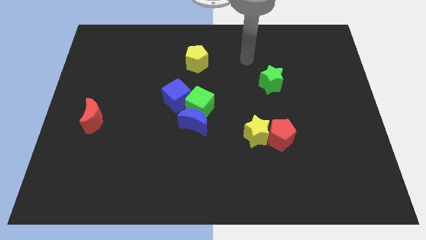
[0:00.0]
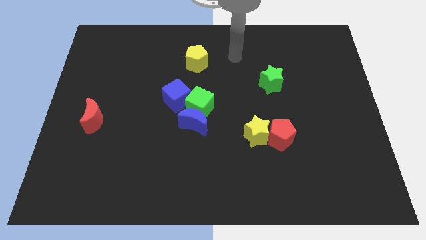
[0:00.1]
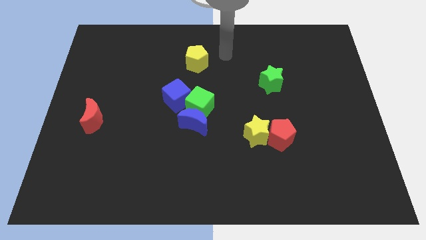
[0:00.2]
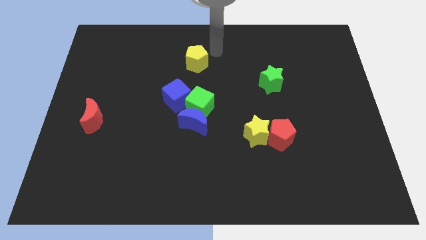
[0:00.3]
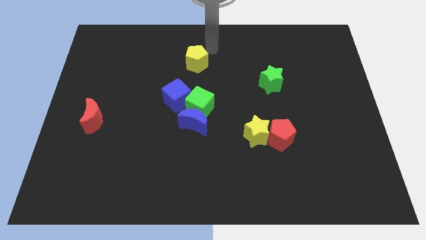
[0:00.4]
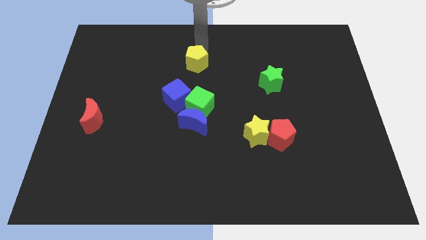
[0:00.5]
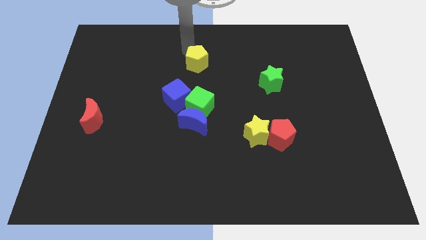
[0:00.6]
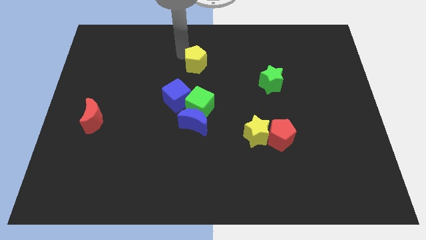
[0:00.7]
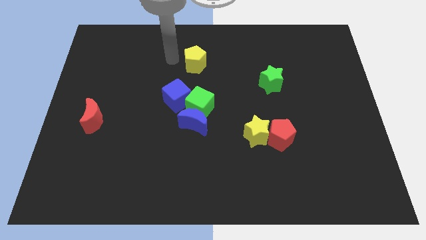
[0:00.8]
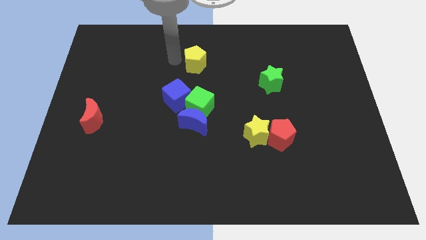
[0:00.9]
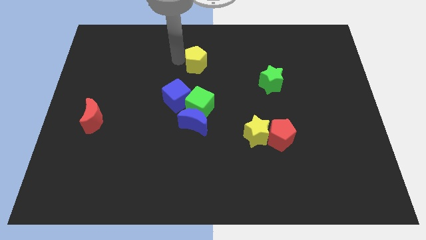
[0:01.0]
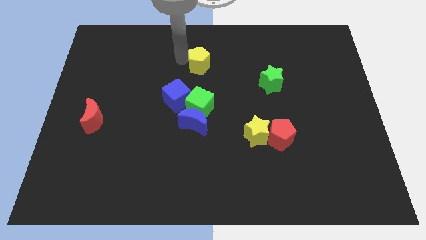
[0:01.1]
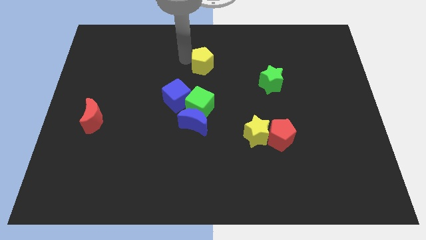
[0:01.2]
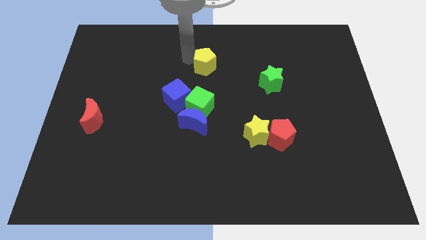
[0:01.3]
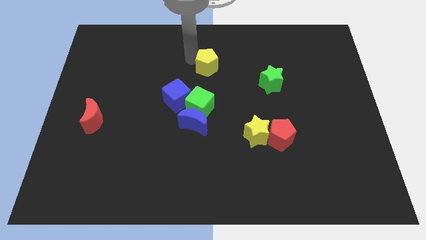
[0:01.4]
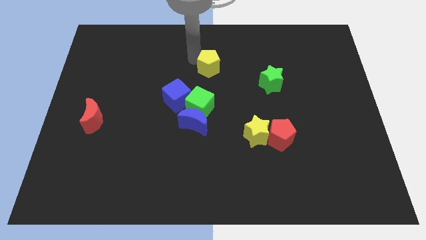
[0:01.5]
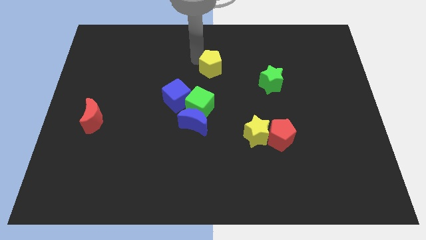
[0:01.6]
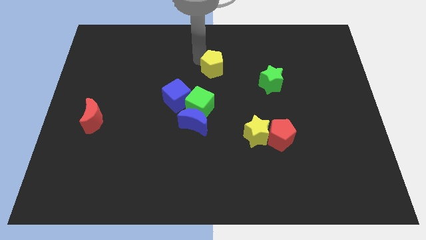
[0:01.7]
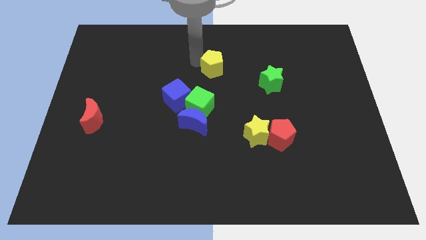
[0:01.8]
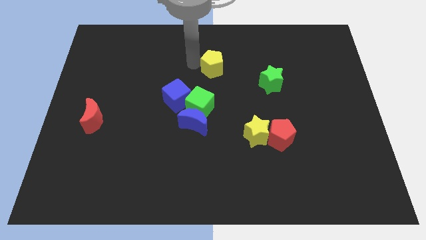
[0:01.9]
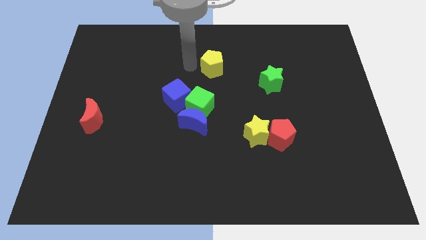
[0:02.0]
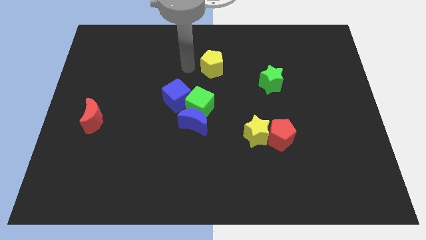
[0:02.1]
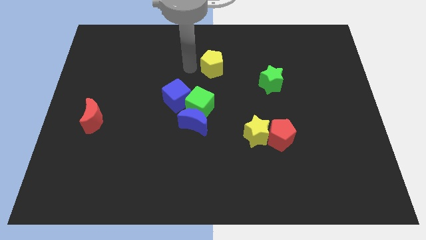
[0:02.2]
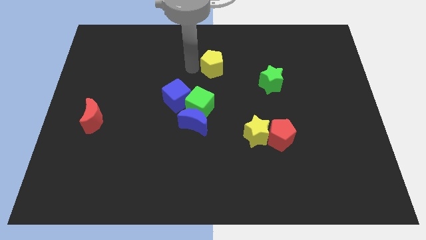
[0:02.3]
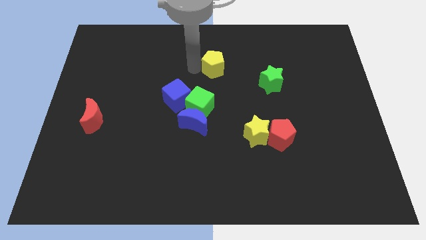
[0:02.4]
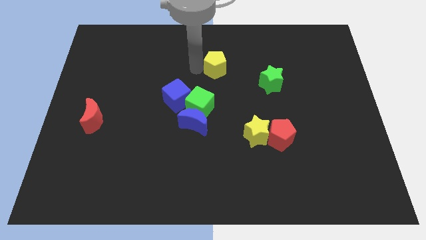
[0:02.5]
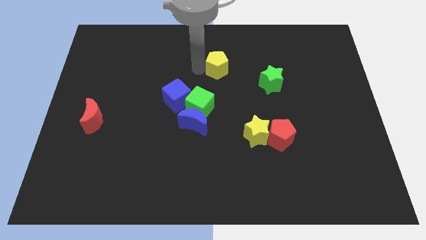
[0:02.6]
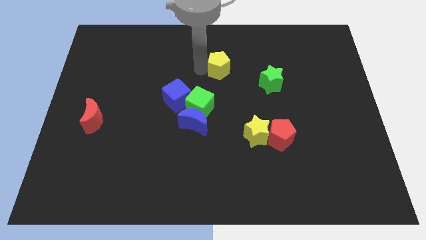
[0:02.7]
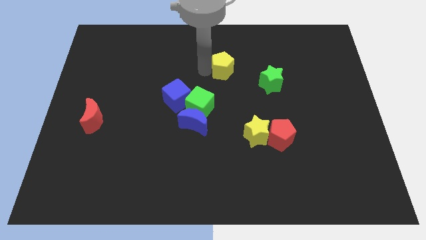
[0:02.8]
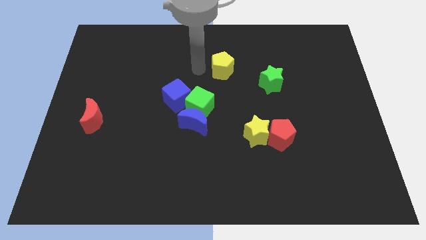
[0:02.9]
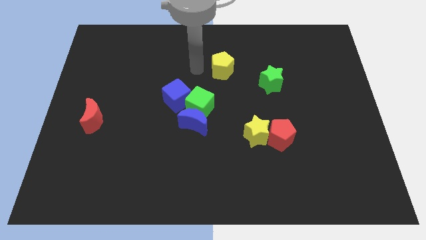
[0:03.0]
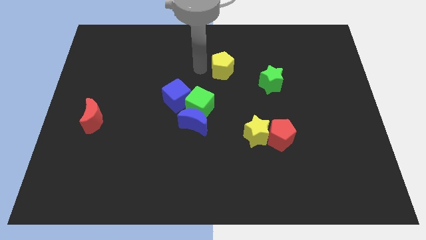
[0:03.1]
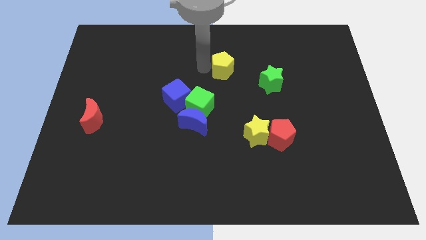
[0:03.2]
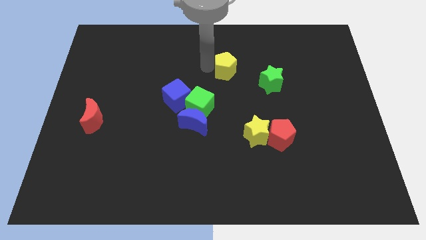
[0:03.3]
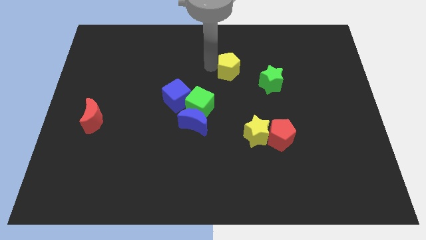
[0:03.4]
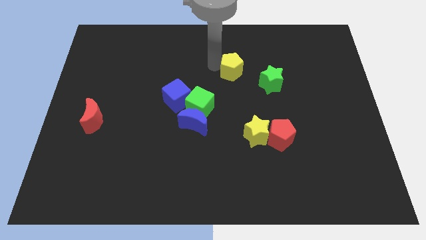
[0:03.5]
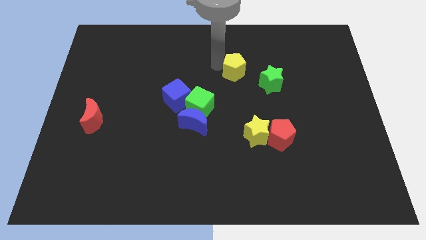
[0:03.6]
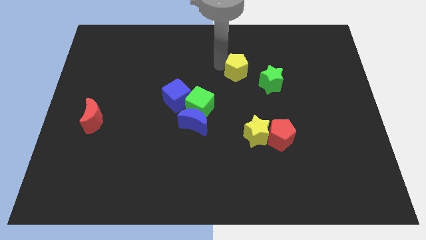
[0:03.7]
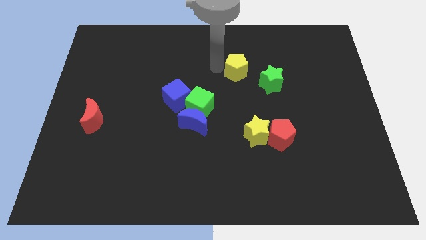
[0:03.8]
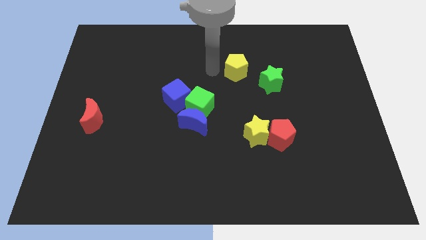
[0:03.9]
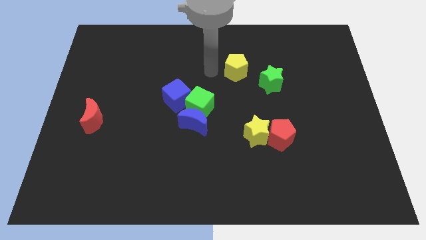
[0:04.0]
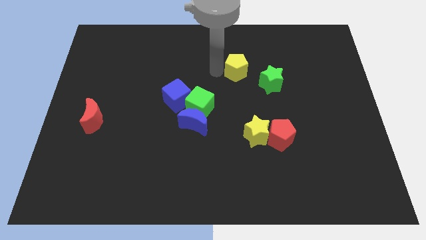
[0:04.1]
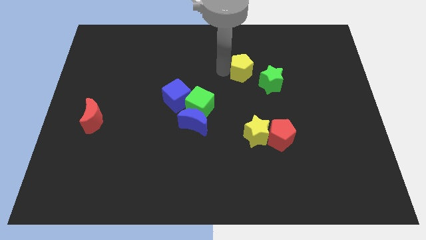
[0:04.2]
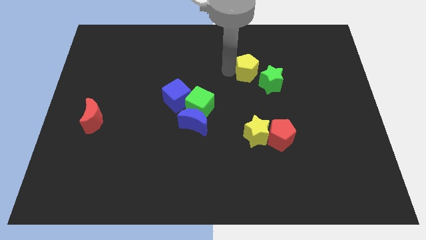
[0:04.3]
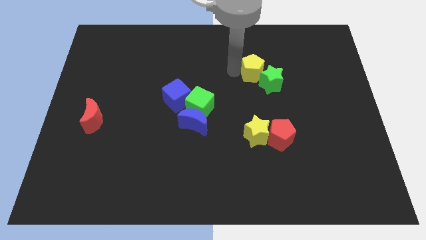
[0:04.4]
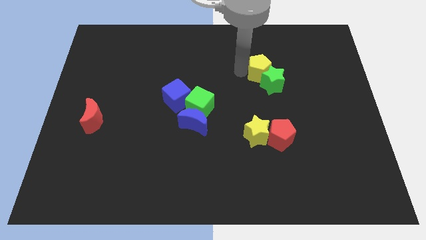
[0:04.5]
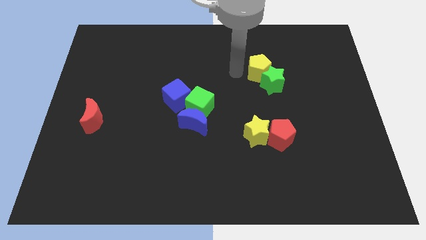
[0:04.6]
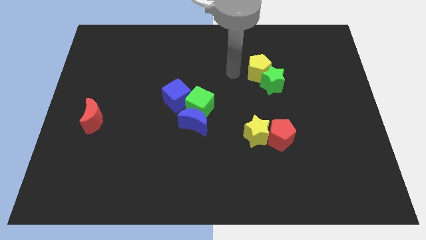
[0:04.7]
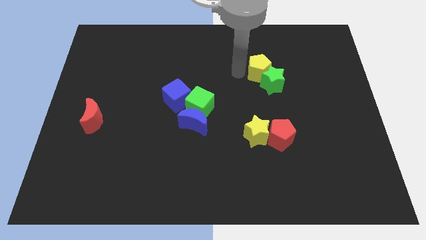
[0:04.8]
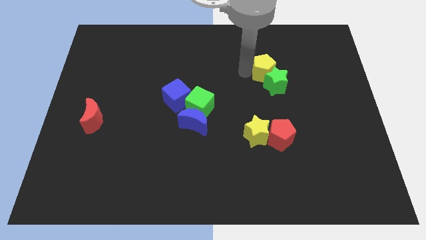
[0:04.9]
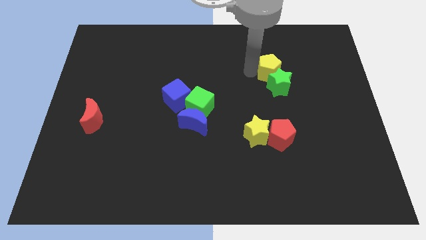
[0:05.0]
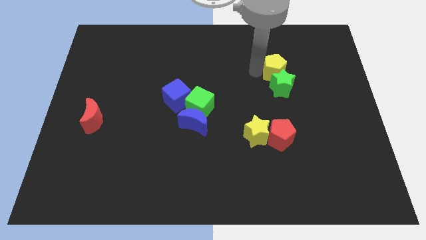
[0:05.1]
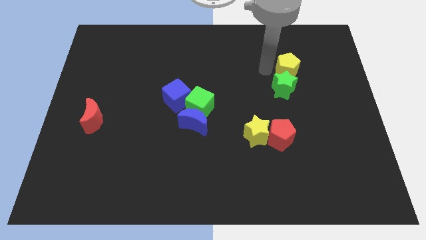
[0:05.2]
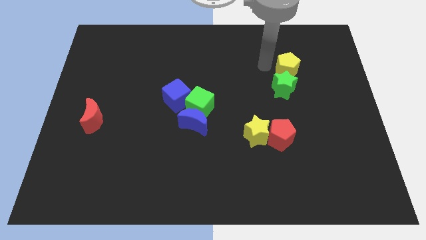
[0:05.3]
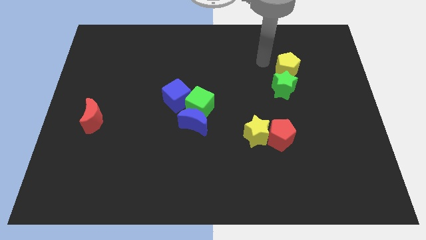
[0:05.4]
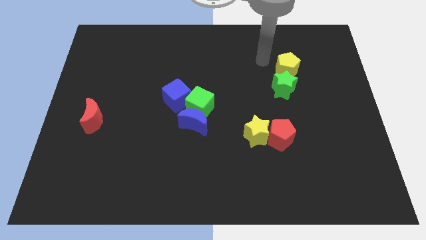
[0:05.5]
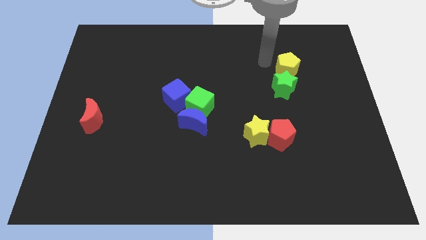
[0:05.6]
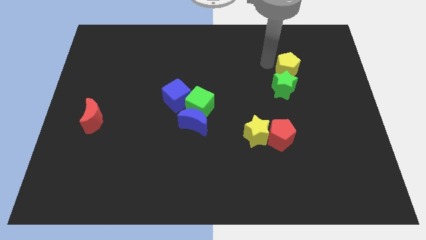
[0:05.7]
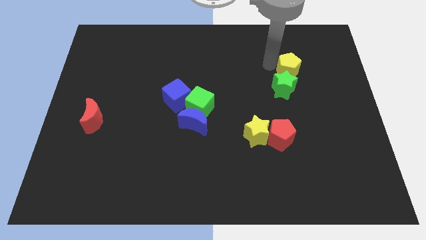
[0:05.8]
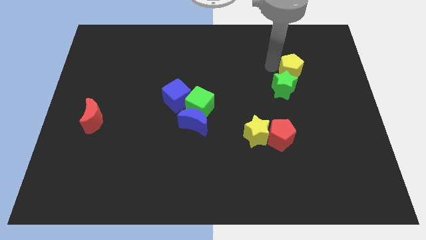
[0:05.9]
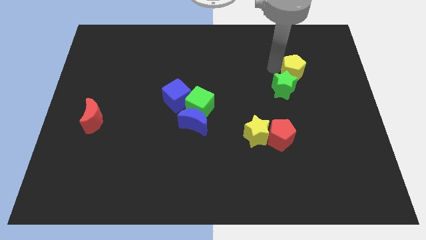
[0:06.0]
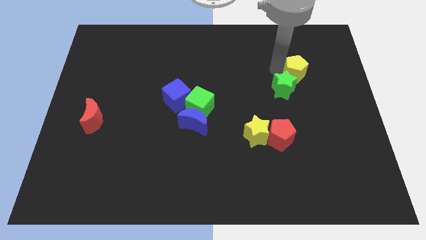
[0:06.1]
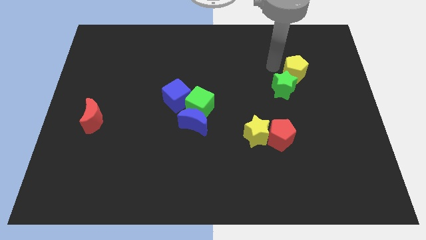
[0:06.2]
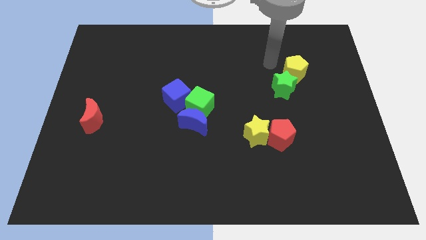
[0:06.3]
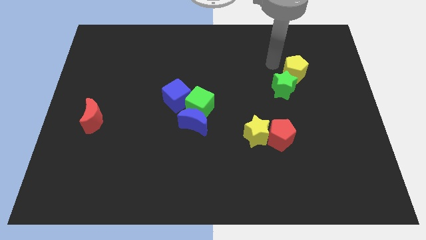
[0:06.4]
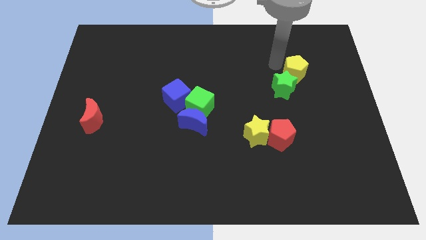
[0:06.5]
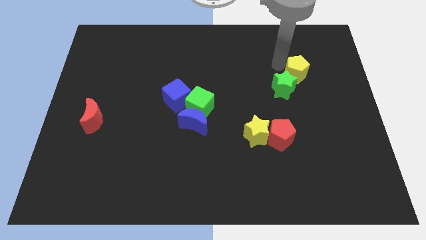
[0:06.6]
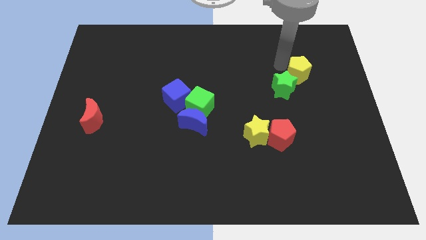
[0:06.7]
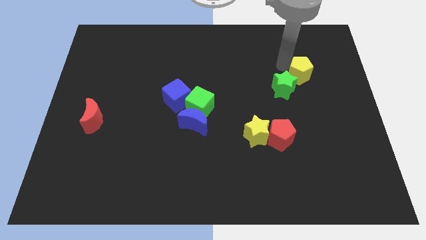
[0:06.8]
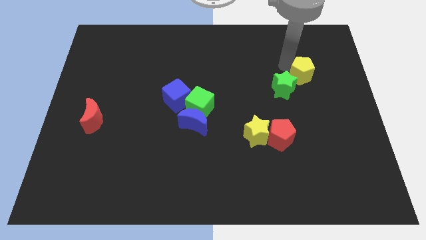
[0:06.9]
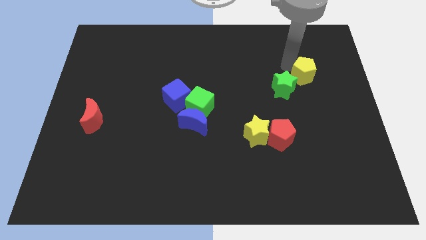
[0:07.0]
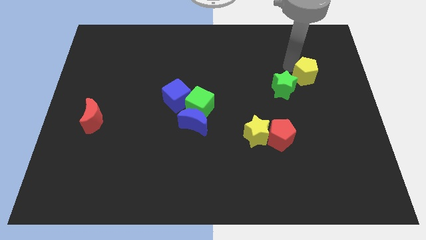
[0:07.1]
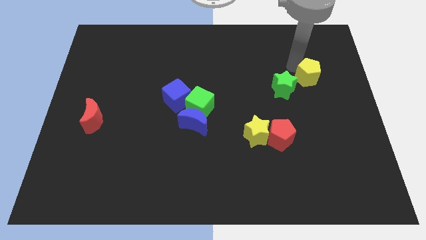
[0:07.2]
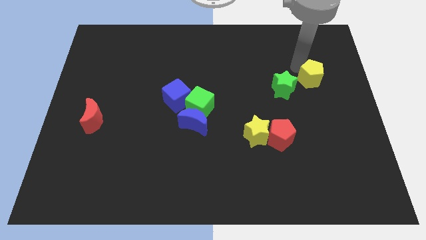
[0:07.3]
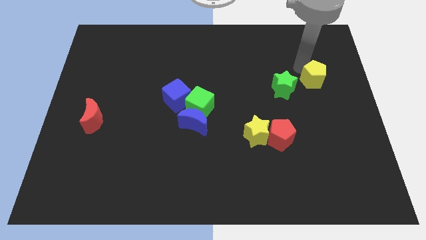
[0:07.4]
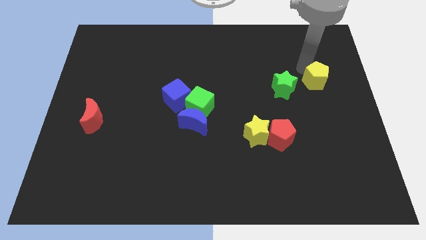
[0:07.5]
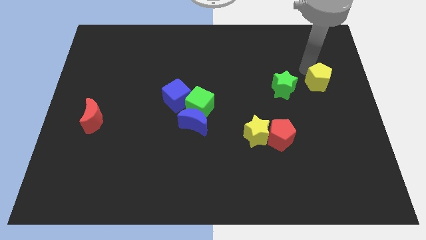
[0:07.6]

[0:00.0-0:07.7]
slide the yellow pentagon to the center right
